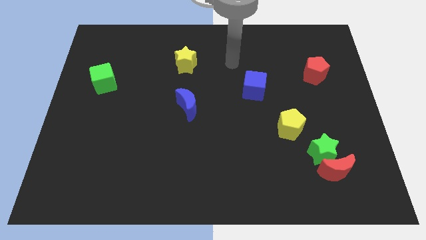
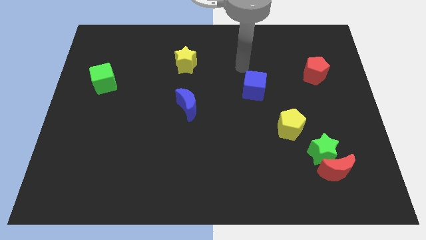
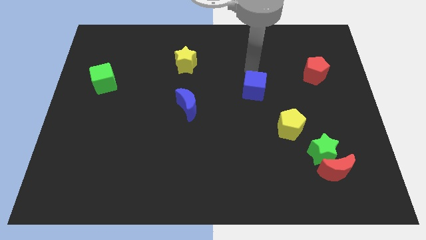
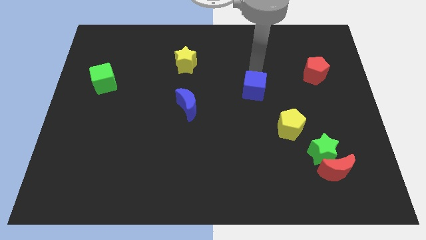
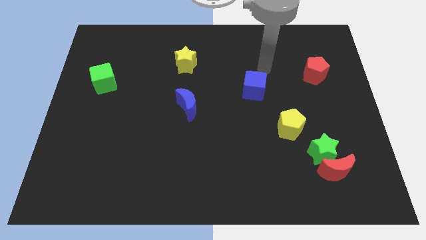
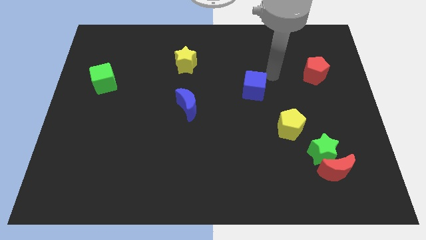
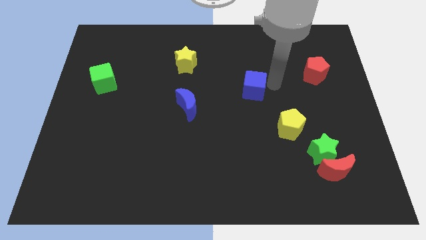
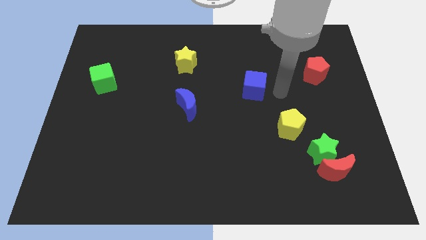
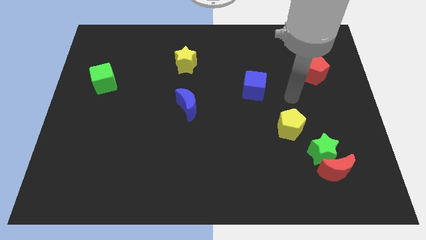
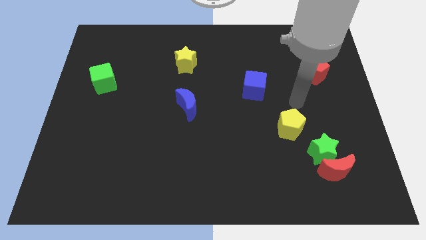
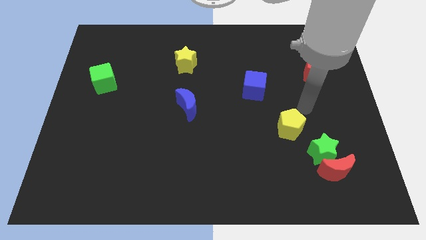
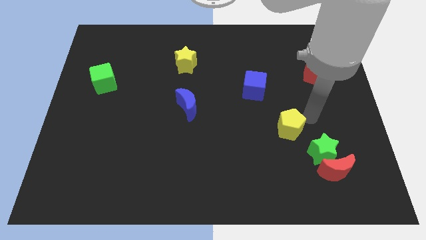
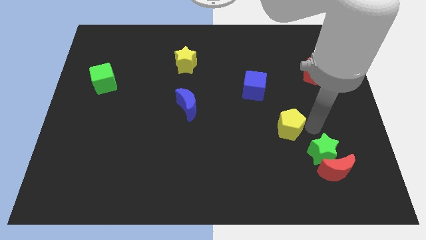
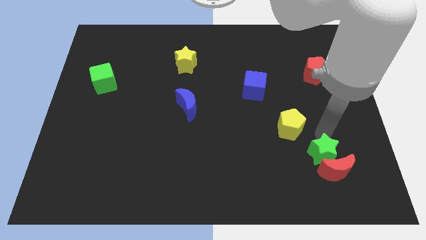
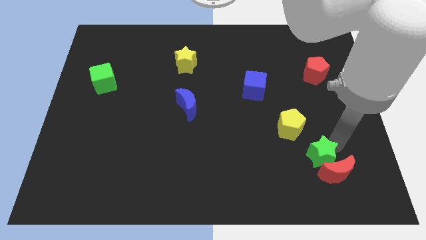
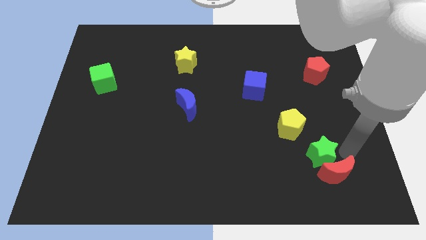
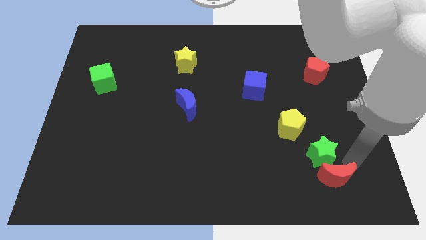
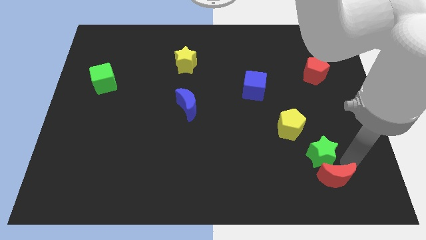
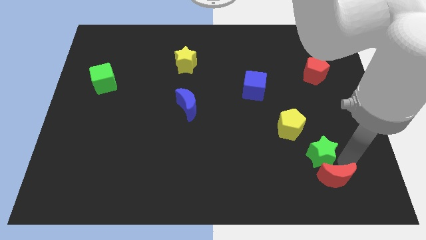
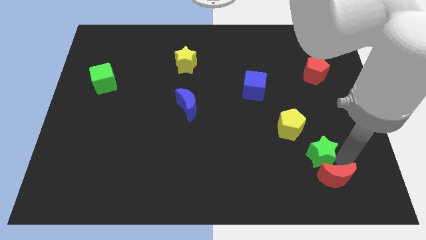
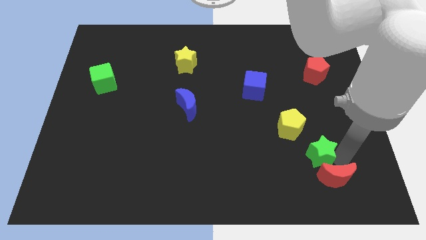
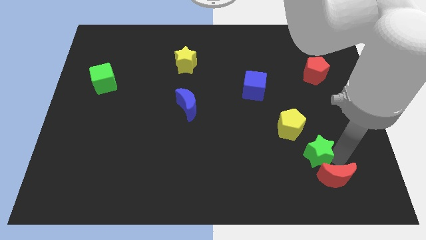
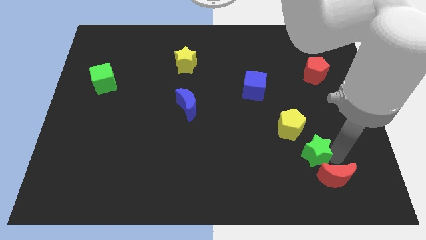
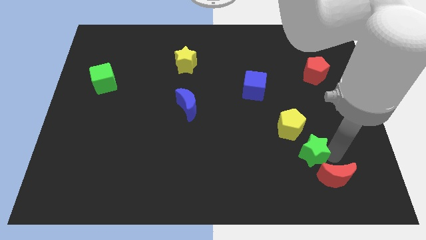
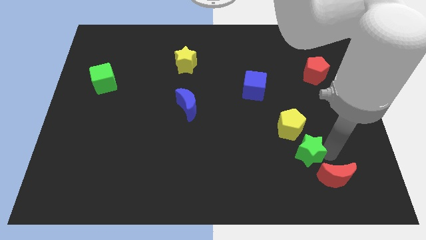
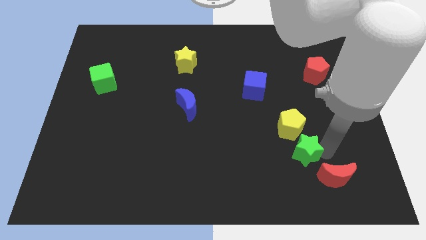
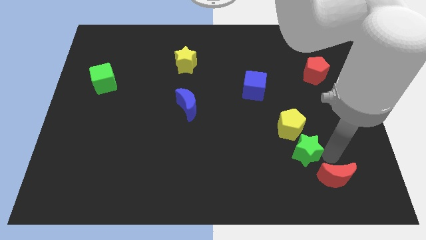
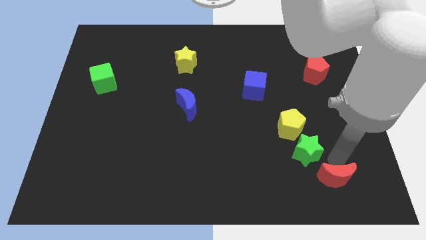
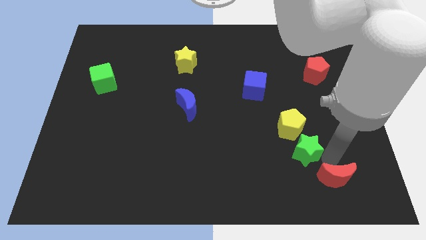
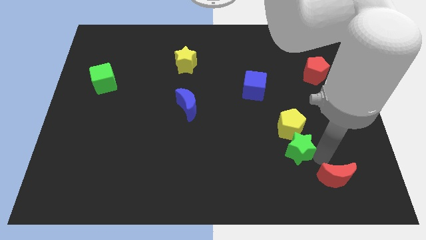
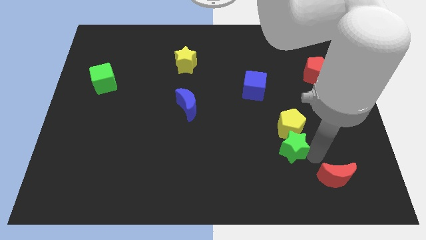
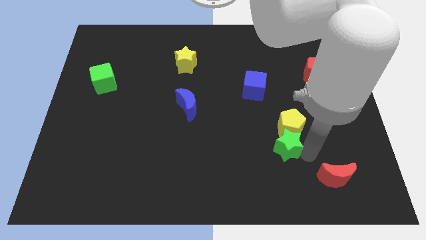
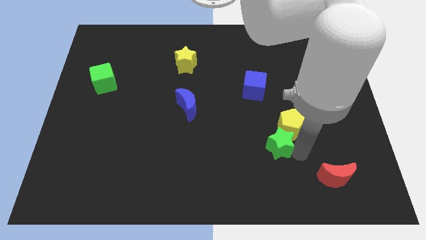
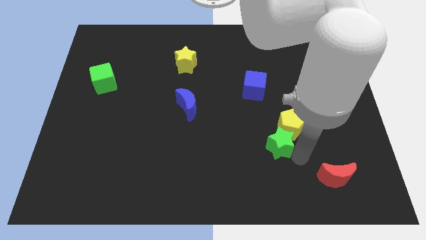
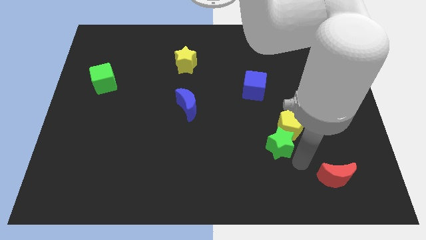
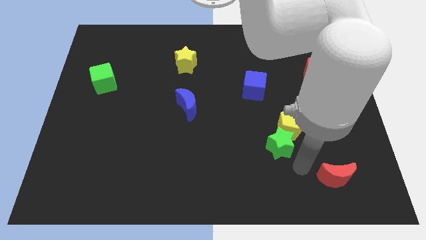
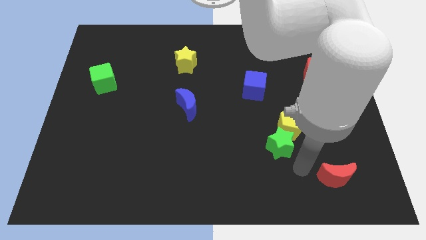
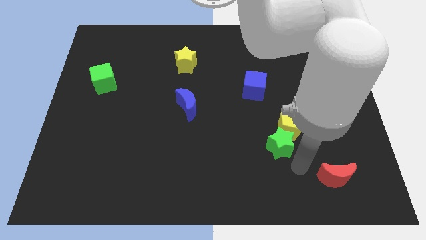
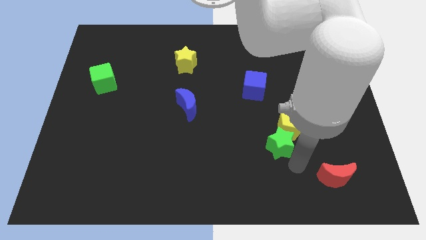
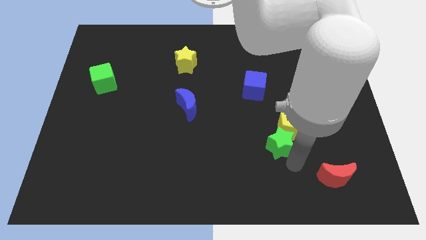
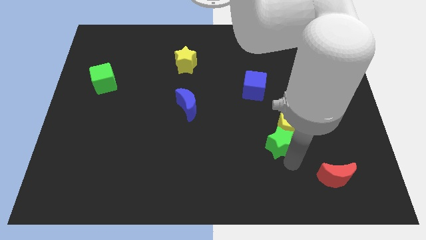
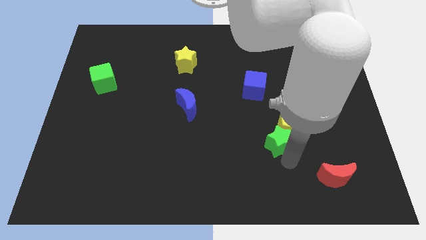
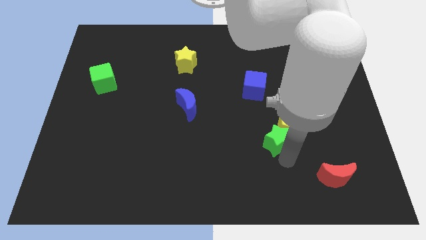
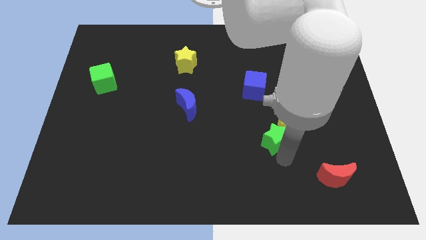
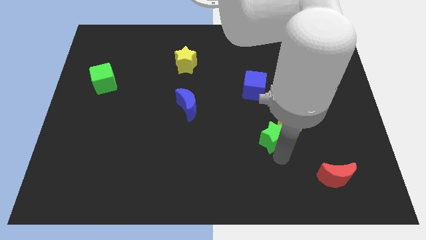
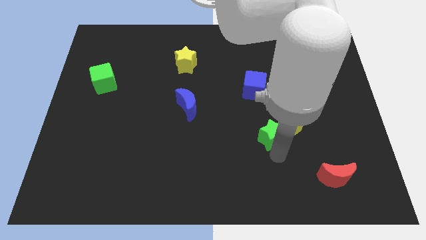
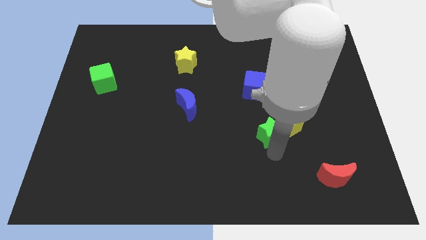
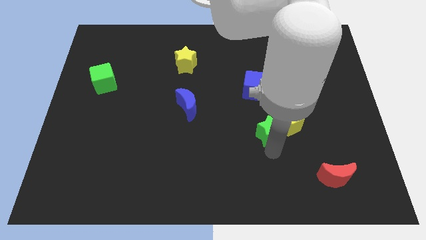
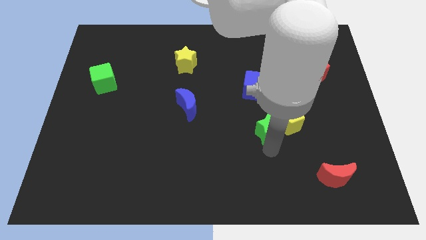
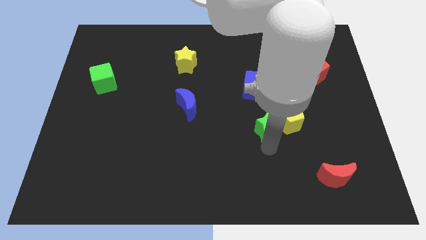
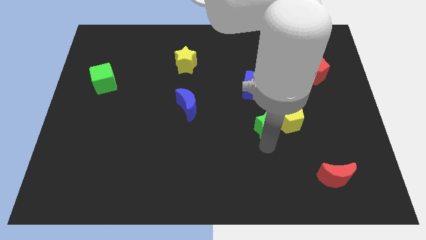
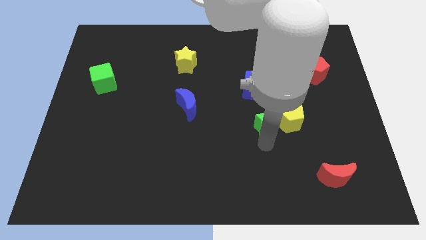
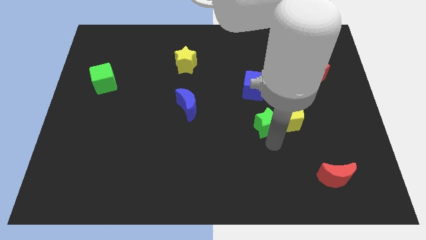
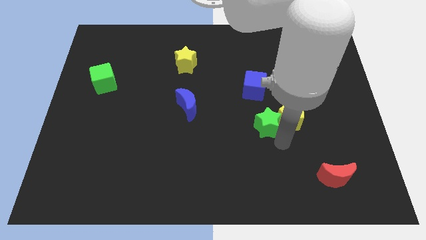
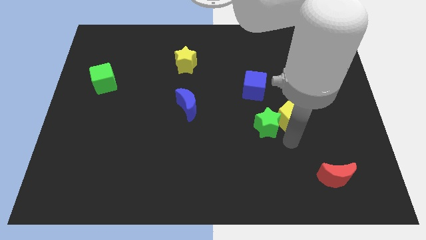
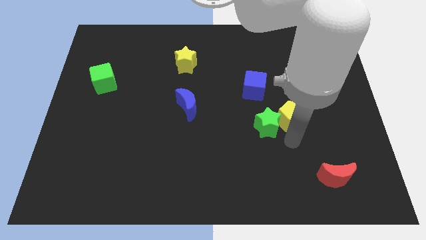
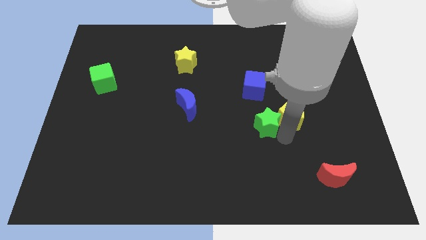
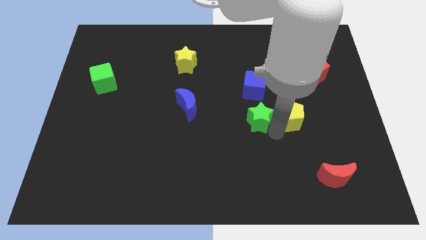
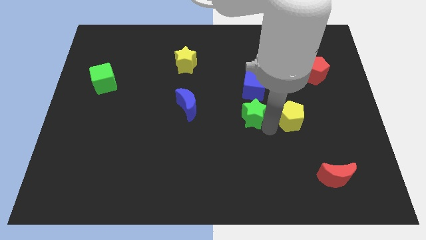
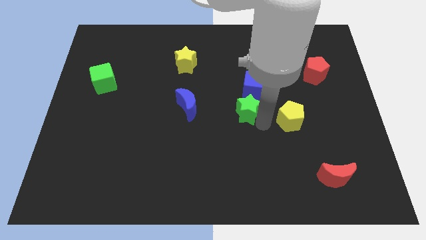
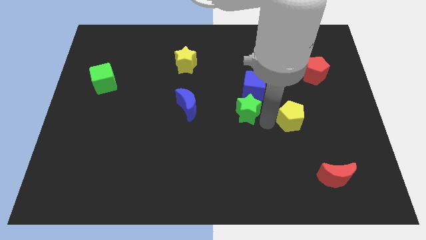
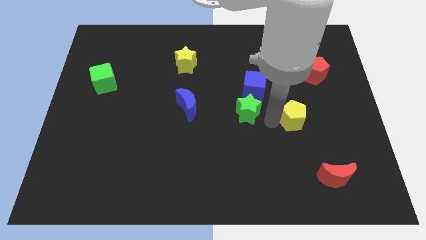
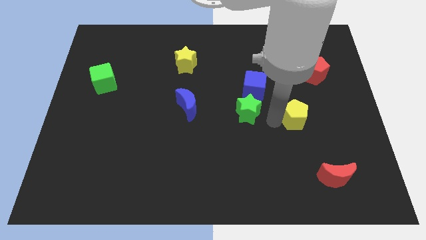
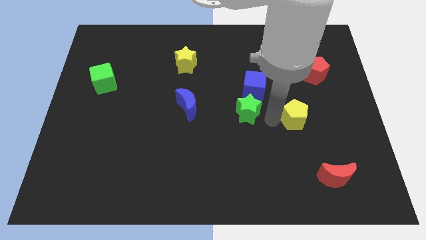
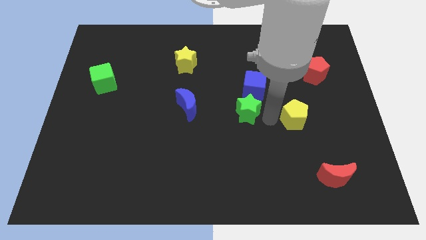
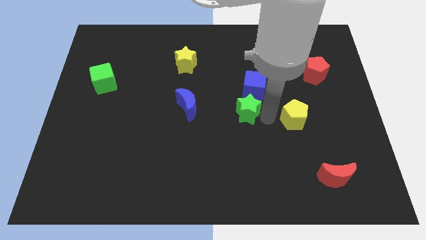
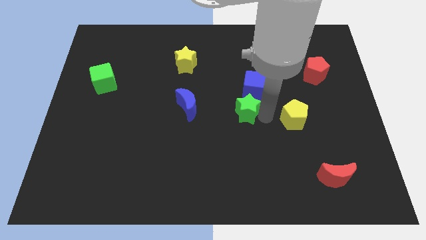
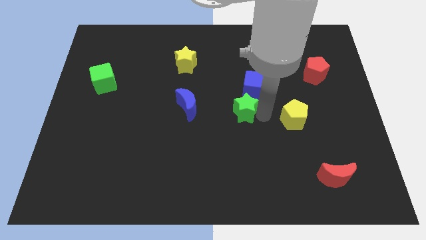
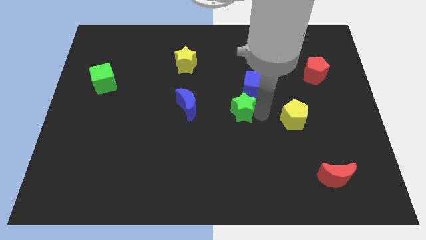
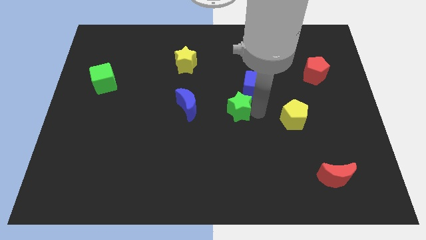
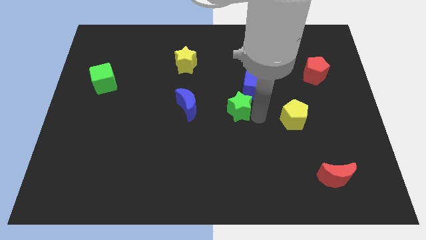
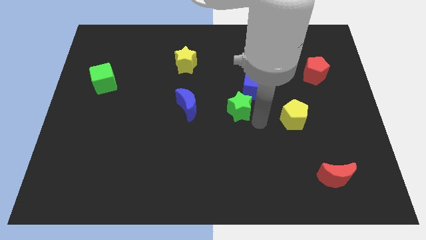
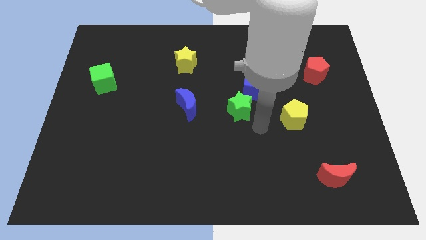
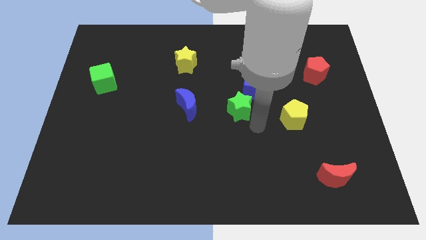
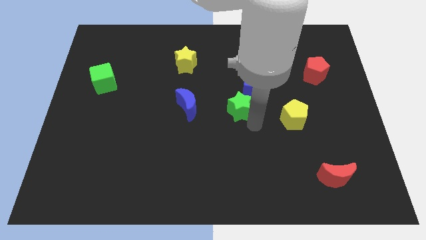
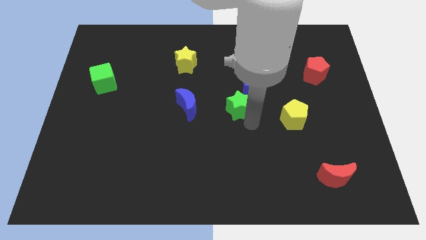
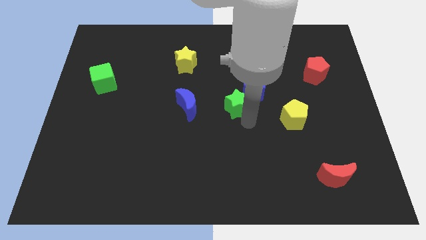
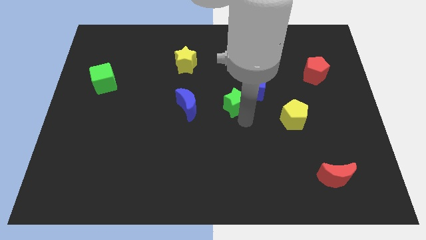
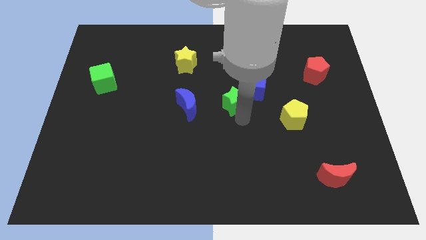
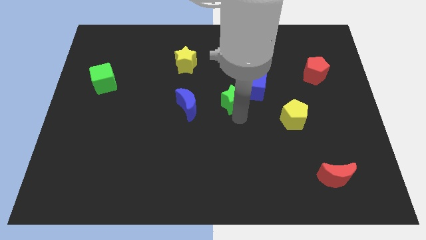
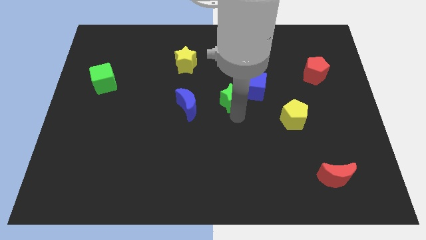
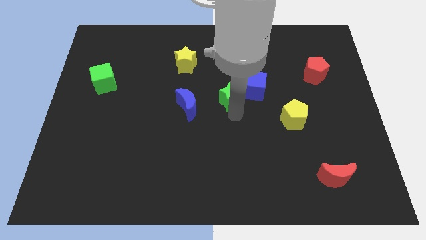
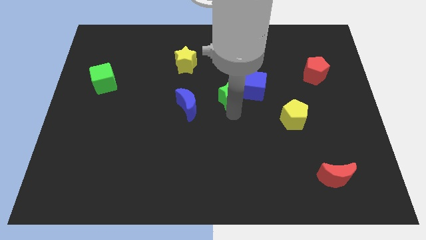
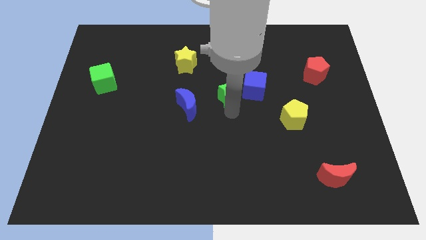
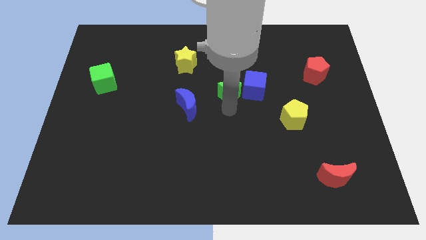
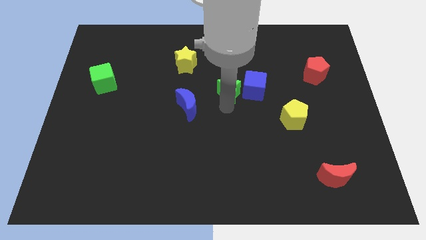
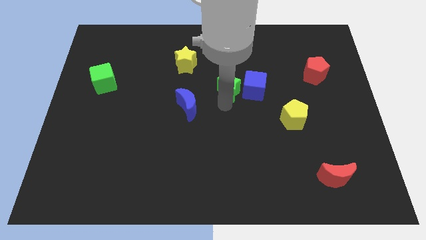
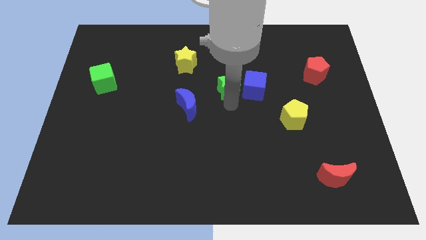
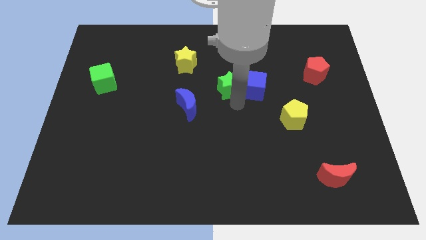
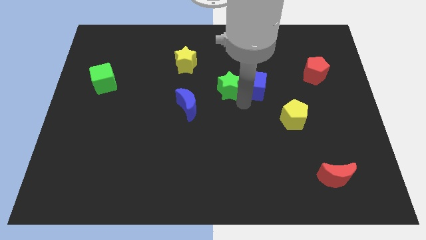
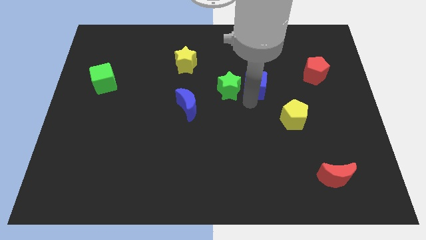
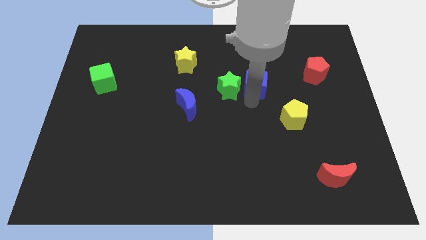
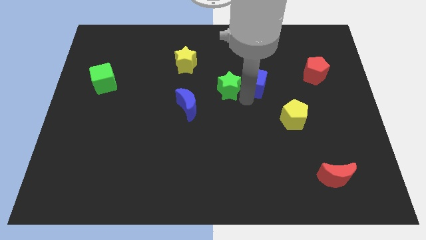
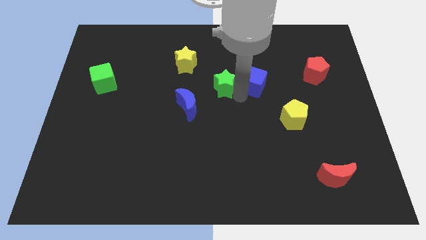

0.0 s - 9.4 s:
put the green star to the bottom right side of the yellow star
